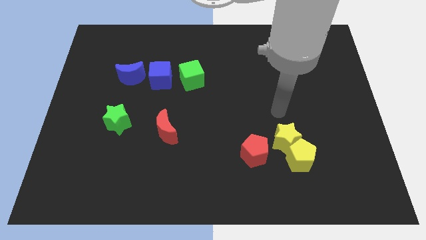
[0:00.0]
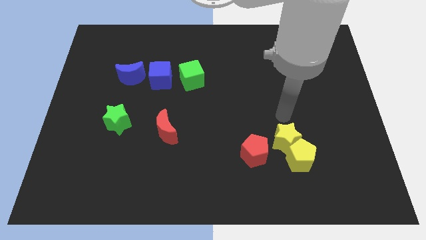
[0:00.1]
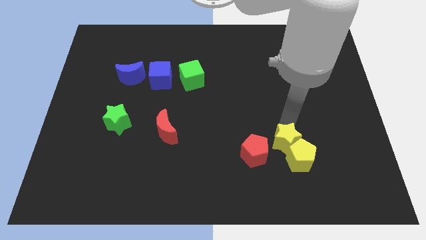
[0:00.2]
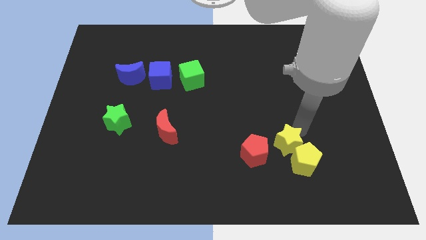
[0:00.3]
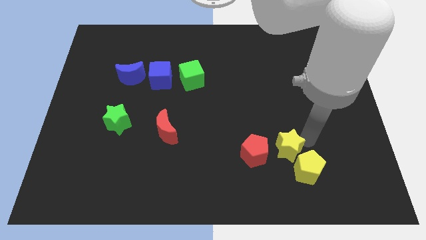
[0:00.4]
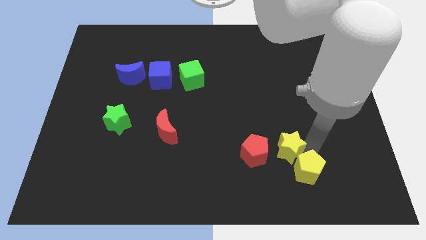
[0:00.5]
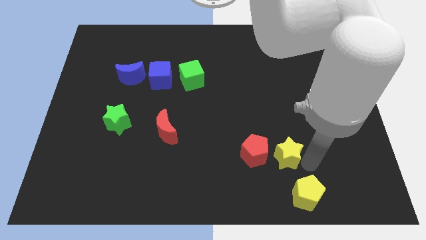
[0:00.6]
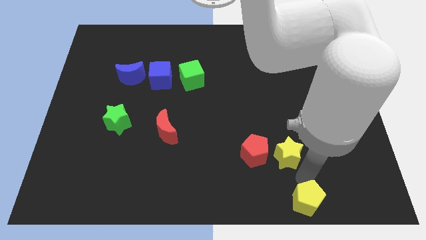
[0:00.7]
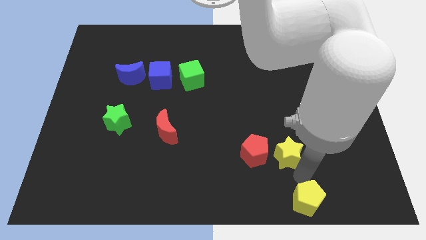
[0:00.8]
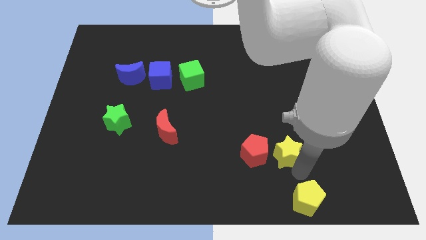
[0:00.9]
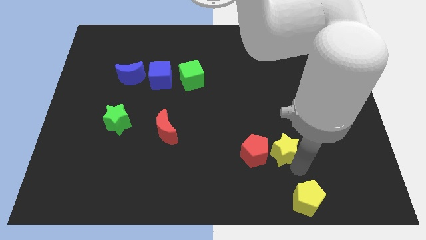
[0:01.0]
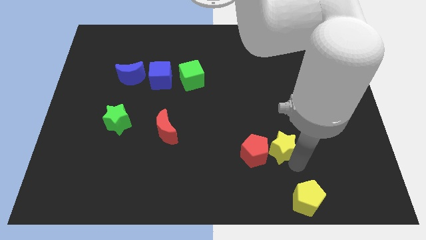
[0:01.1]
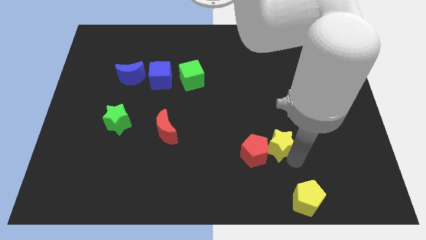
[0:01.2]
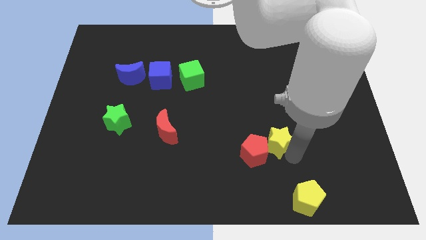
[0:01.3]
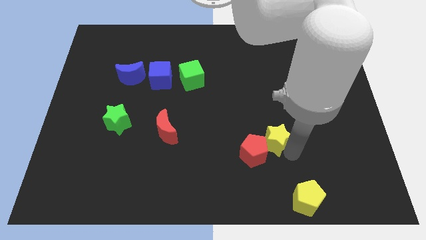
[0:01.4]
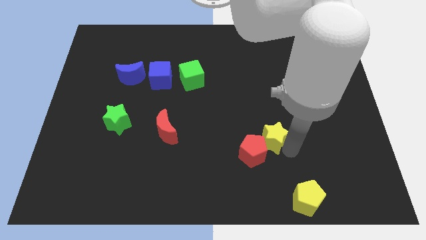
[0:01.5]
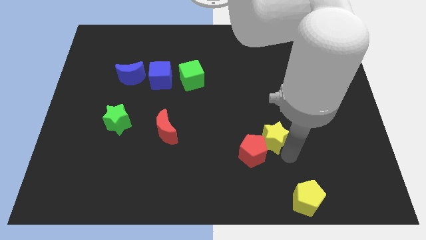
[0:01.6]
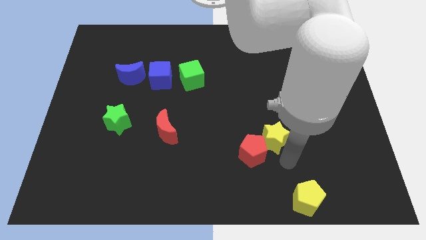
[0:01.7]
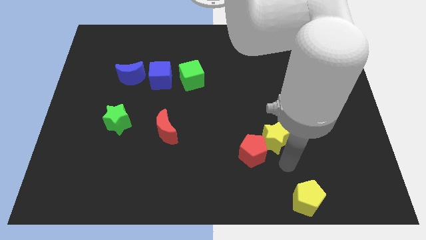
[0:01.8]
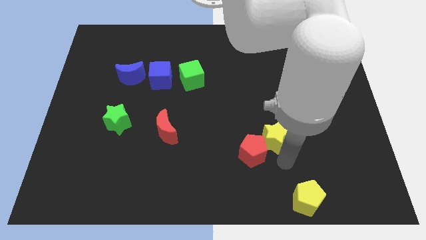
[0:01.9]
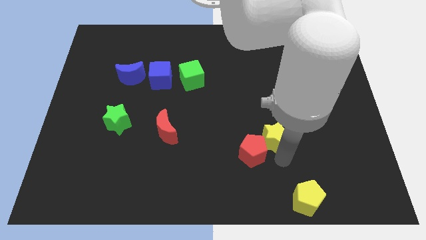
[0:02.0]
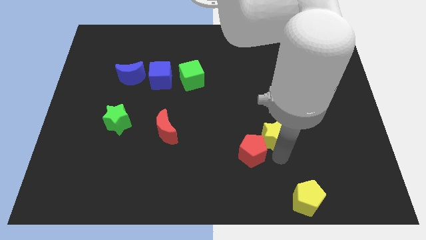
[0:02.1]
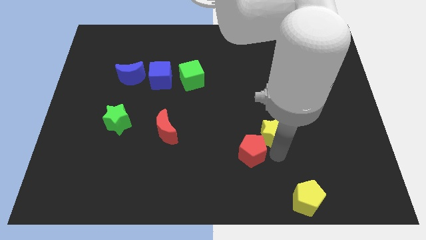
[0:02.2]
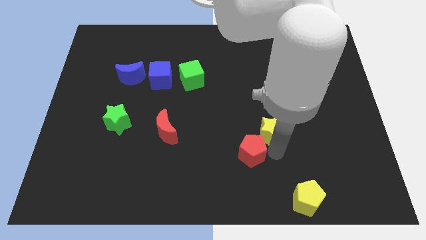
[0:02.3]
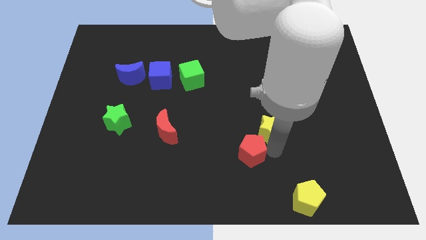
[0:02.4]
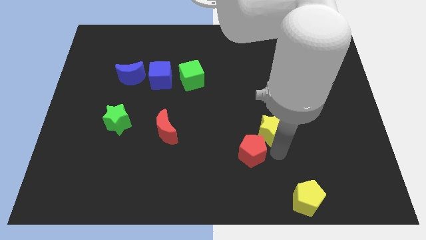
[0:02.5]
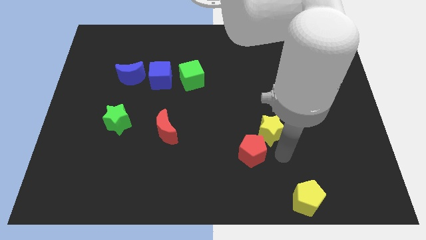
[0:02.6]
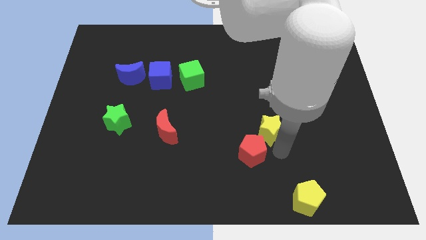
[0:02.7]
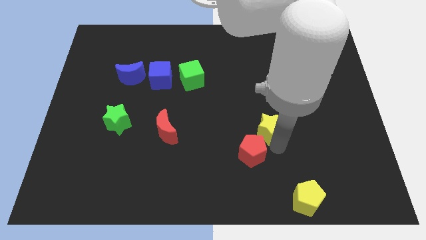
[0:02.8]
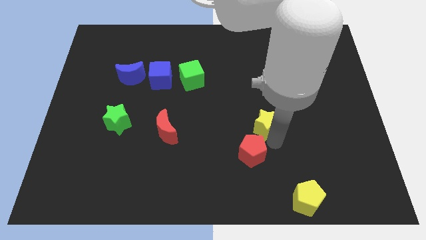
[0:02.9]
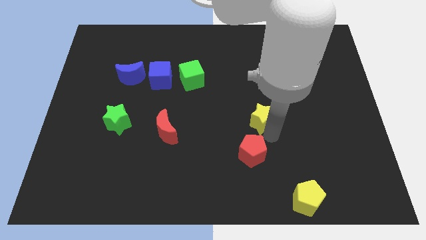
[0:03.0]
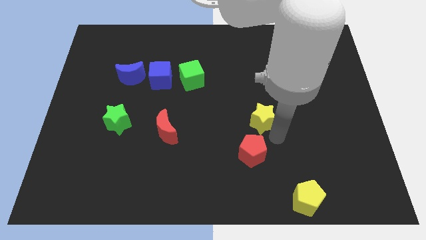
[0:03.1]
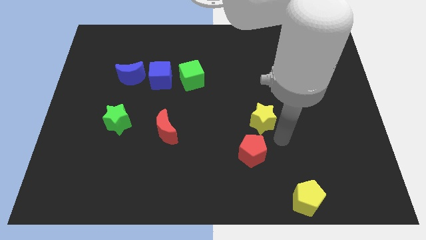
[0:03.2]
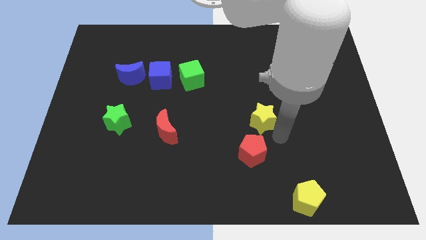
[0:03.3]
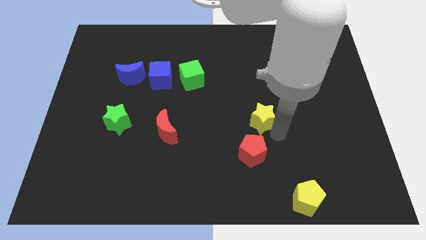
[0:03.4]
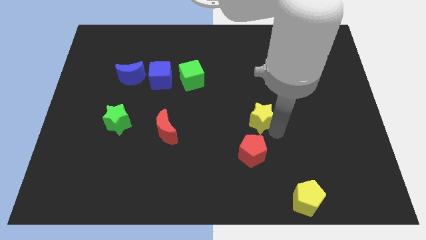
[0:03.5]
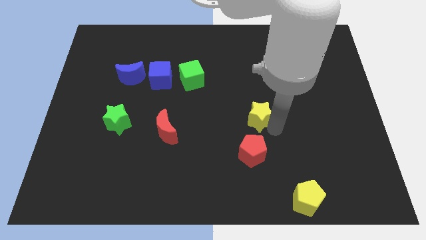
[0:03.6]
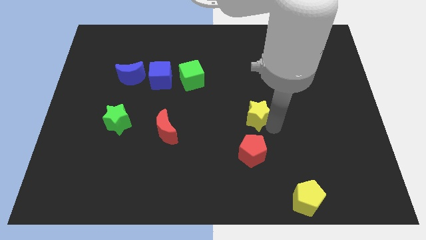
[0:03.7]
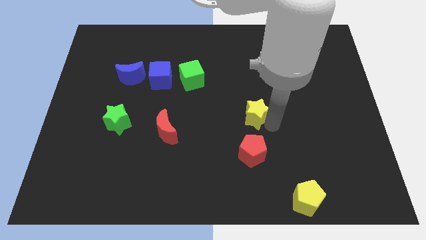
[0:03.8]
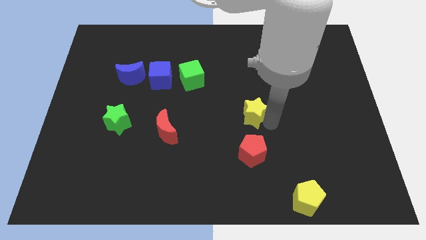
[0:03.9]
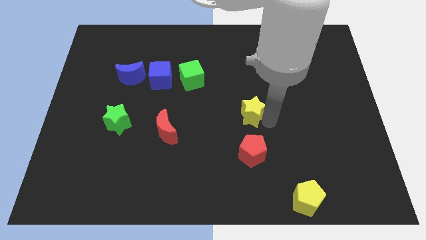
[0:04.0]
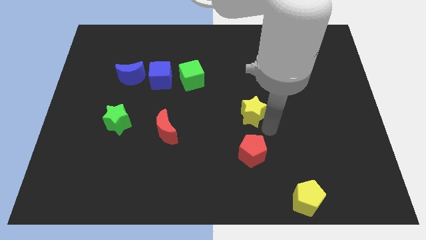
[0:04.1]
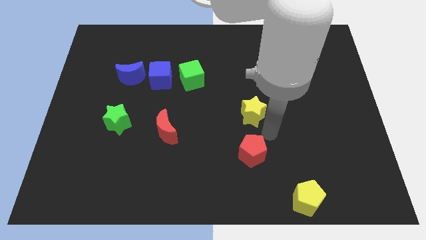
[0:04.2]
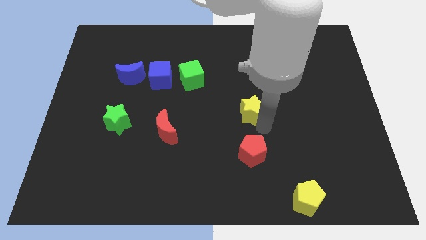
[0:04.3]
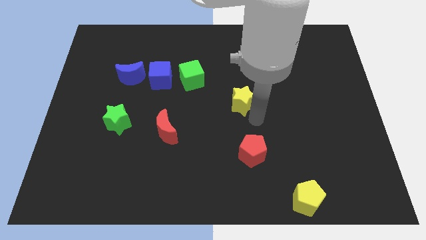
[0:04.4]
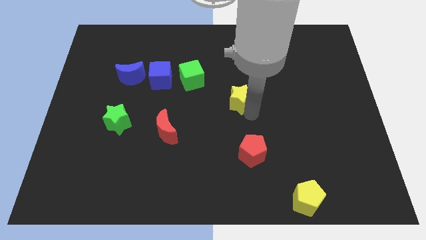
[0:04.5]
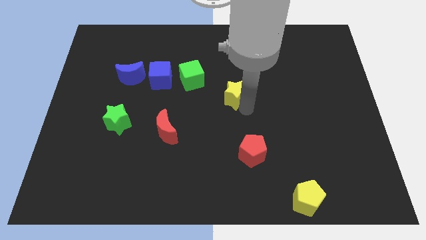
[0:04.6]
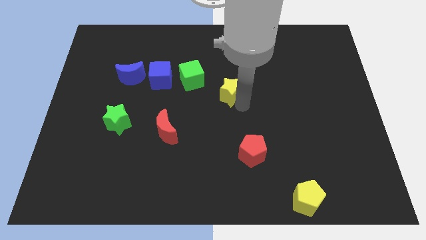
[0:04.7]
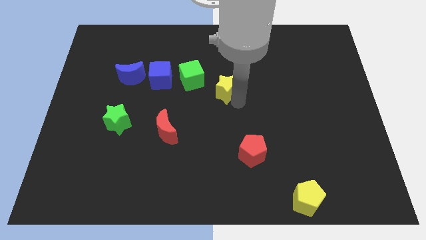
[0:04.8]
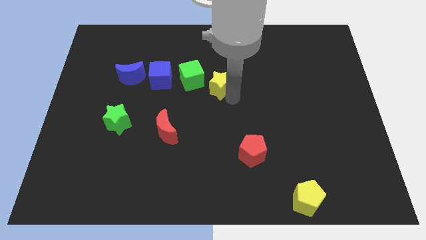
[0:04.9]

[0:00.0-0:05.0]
slide the yellow star upwards and then to the left

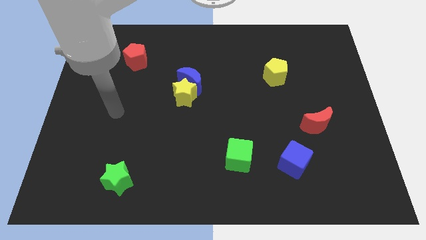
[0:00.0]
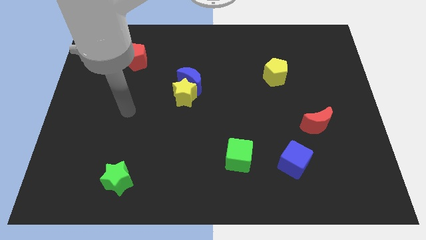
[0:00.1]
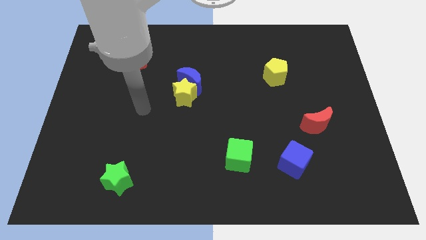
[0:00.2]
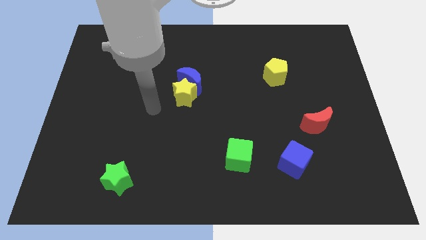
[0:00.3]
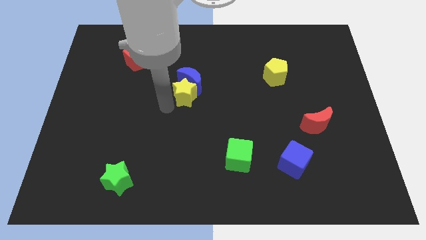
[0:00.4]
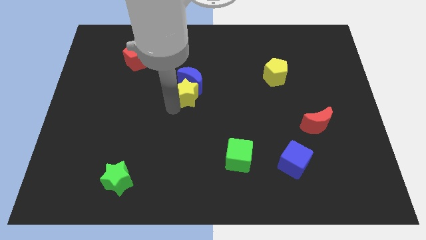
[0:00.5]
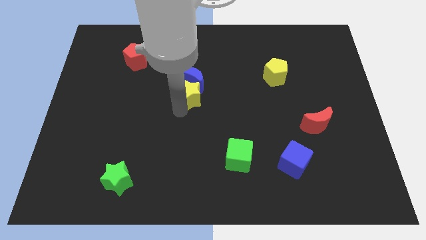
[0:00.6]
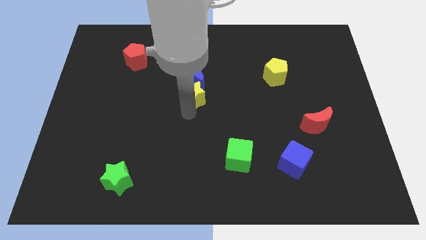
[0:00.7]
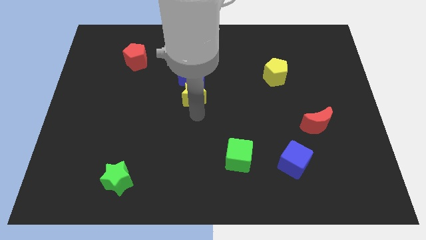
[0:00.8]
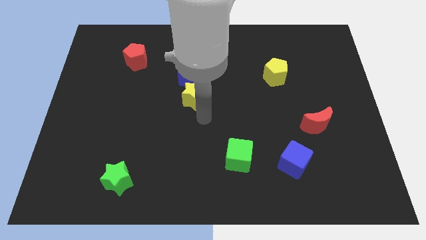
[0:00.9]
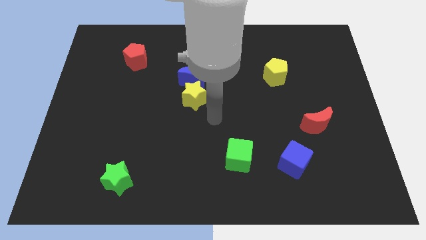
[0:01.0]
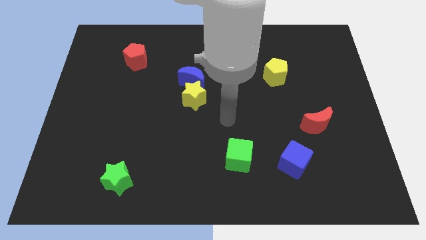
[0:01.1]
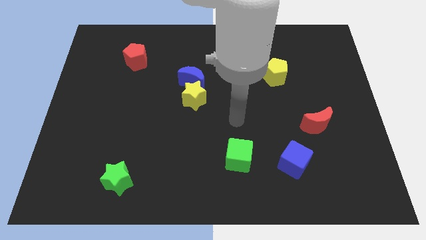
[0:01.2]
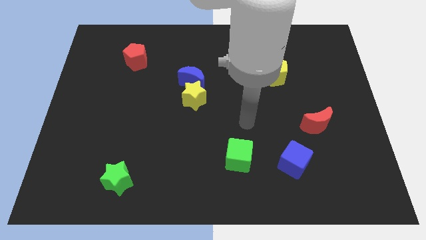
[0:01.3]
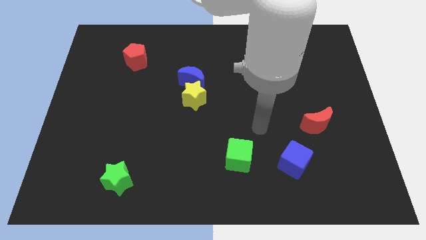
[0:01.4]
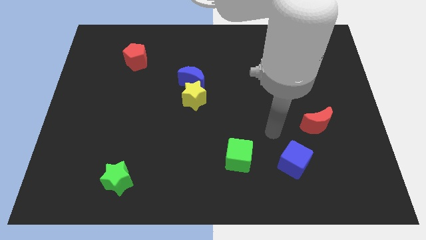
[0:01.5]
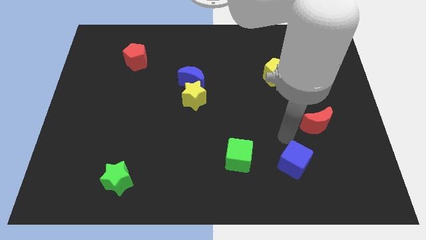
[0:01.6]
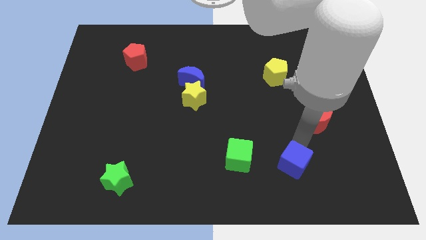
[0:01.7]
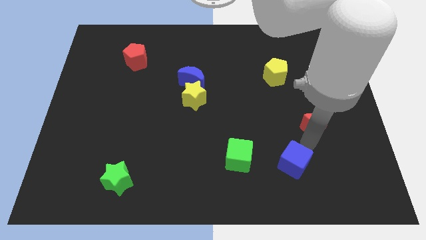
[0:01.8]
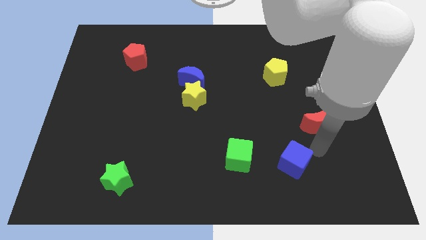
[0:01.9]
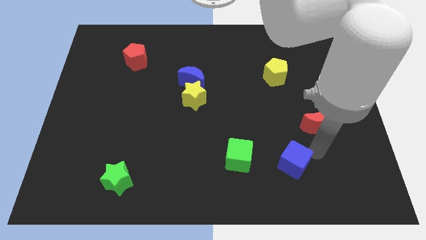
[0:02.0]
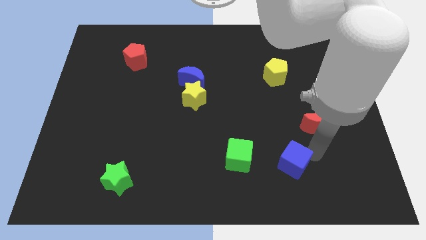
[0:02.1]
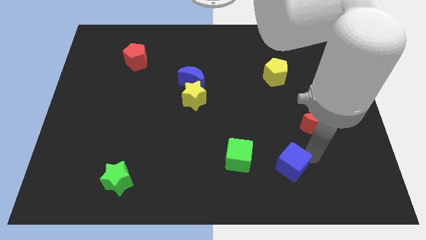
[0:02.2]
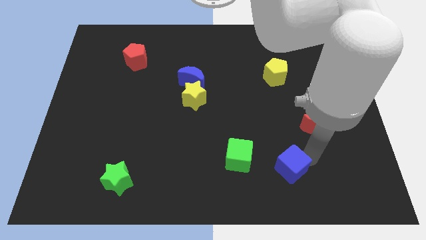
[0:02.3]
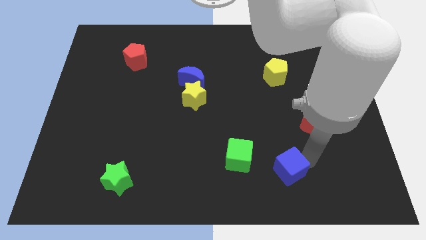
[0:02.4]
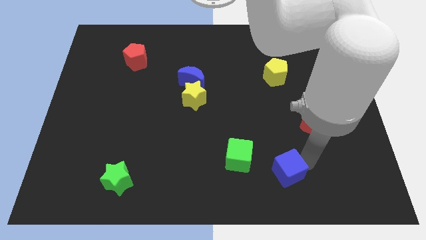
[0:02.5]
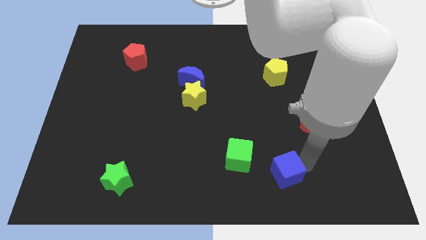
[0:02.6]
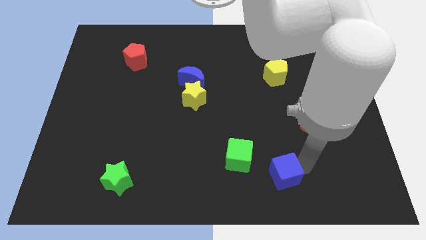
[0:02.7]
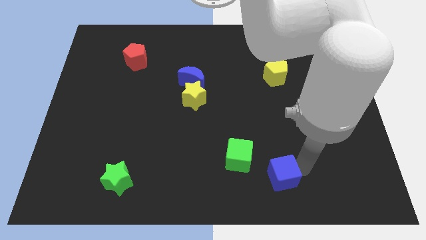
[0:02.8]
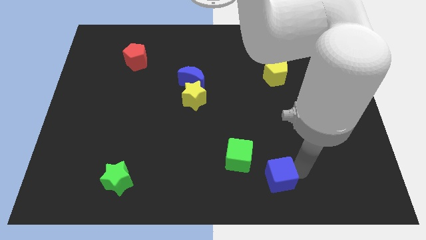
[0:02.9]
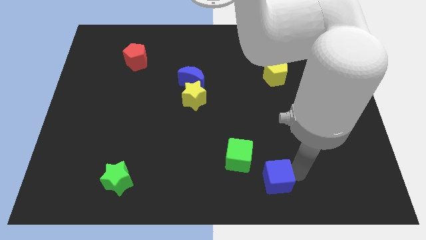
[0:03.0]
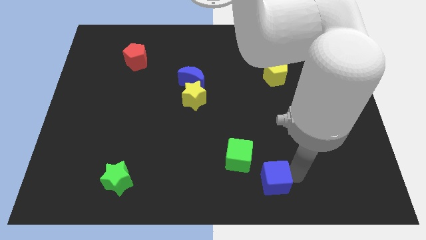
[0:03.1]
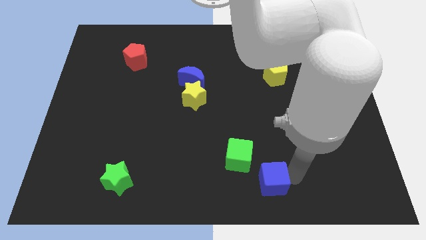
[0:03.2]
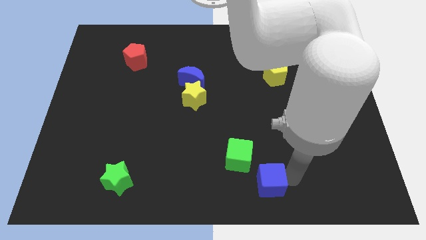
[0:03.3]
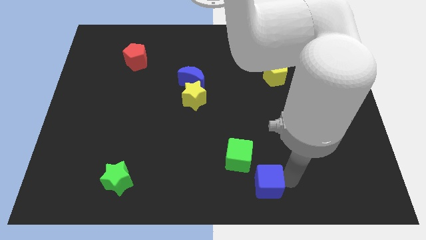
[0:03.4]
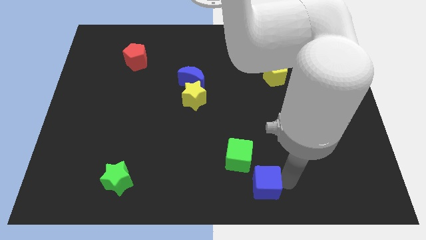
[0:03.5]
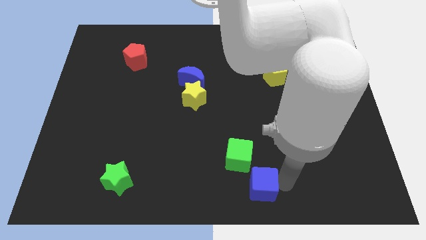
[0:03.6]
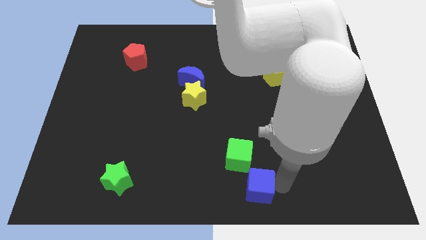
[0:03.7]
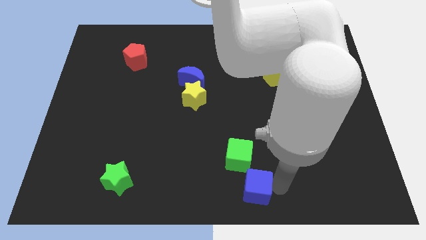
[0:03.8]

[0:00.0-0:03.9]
push the blue cube left somewhat
